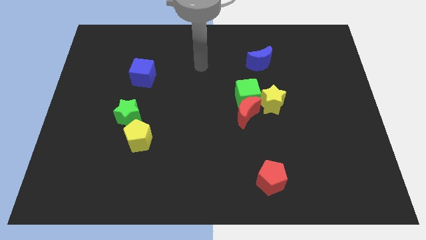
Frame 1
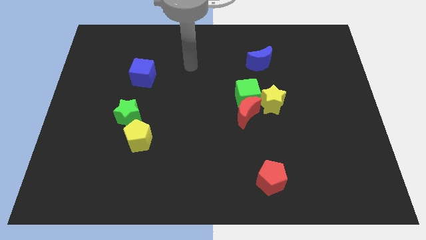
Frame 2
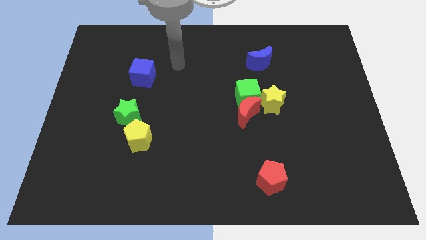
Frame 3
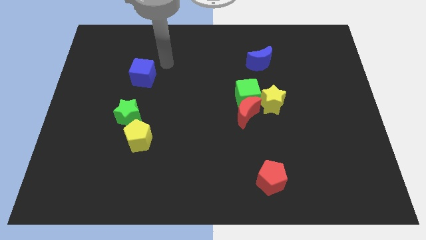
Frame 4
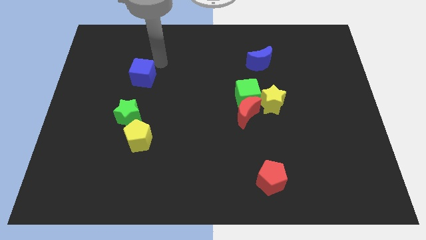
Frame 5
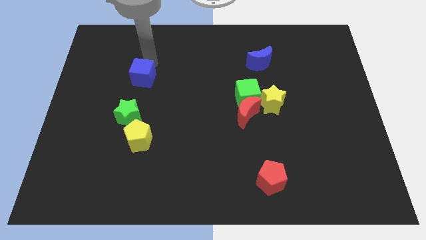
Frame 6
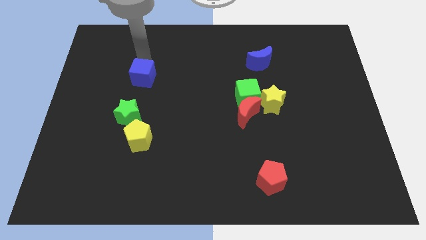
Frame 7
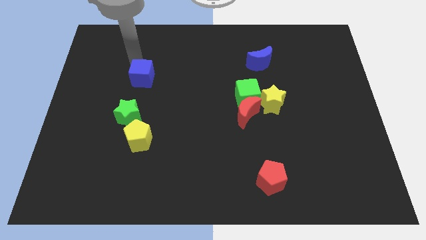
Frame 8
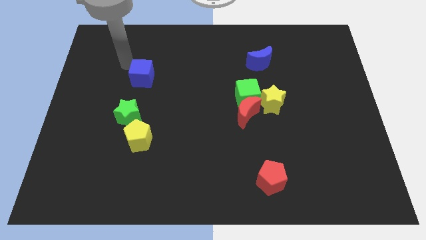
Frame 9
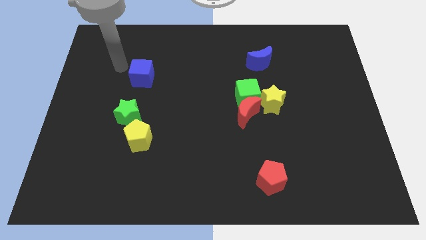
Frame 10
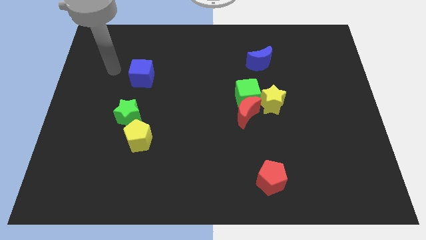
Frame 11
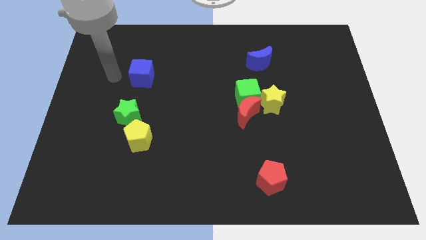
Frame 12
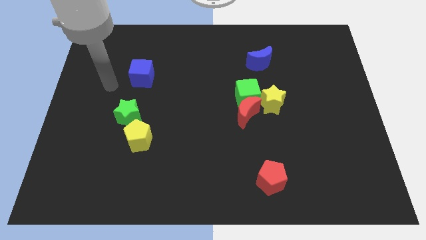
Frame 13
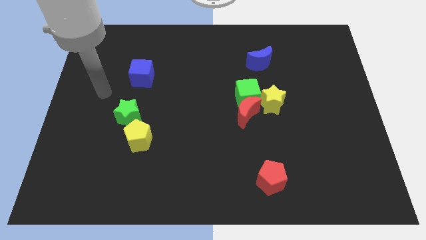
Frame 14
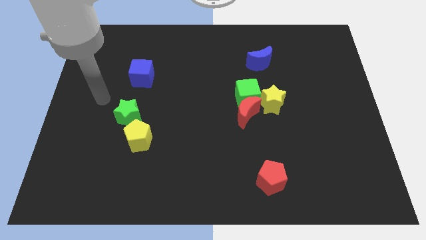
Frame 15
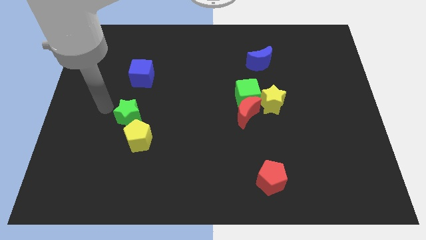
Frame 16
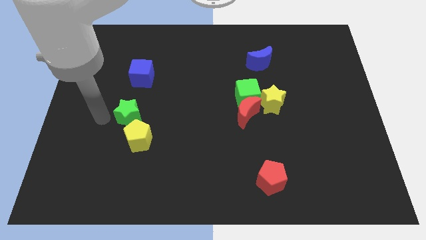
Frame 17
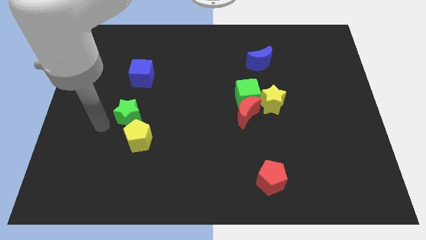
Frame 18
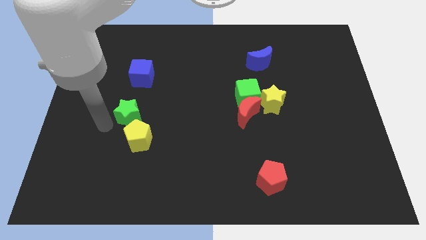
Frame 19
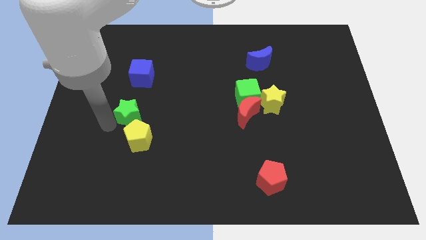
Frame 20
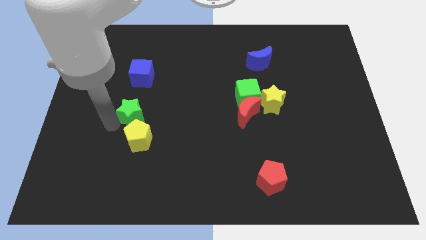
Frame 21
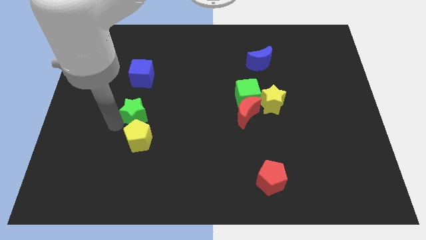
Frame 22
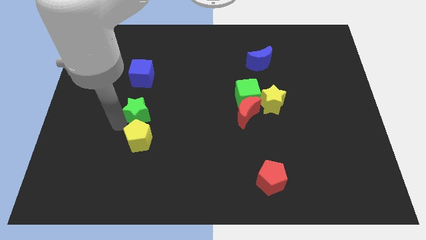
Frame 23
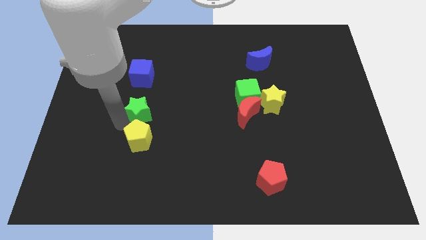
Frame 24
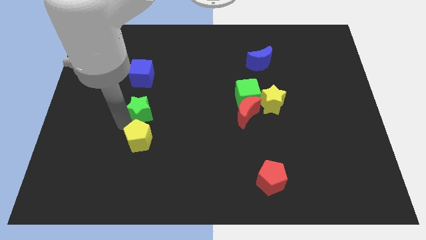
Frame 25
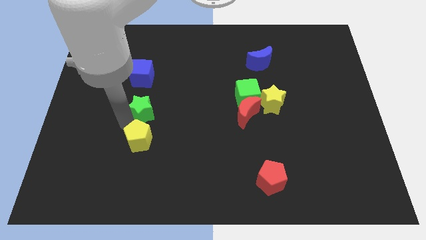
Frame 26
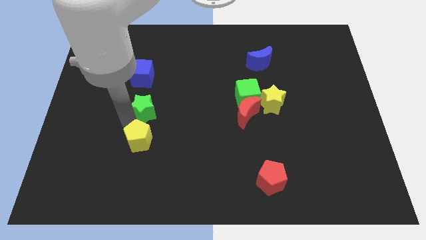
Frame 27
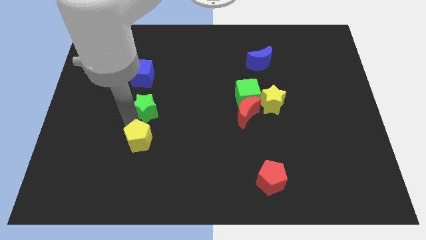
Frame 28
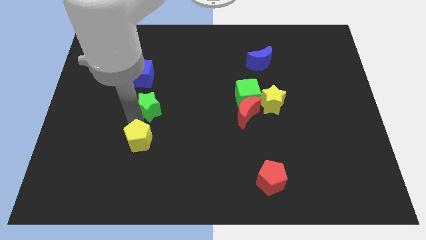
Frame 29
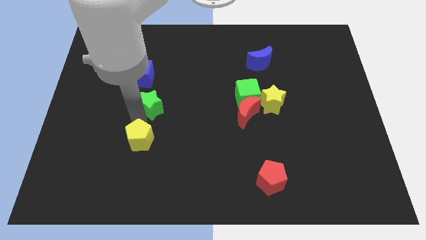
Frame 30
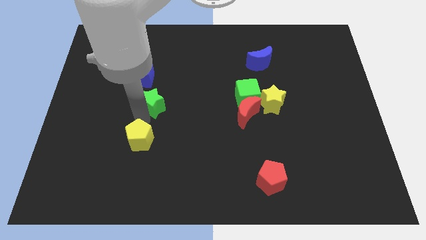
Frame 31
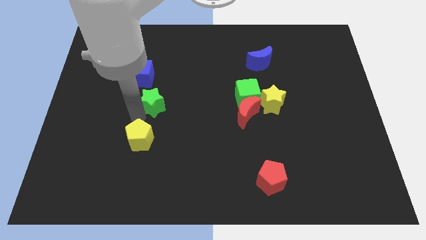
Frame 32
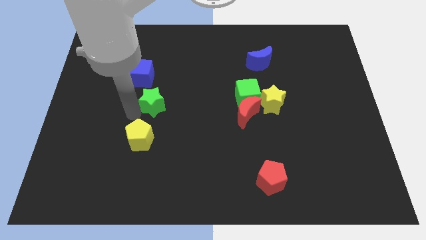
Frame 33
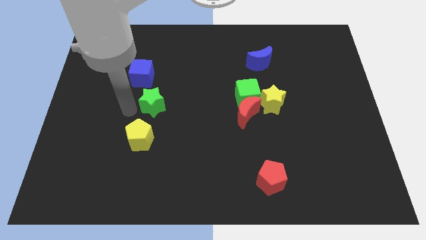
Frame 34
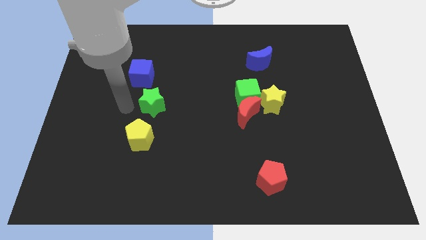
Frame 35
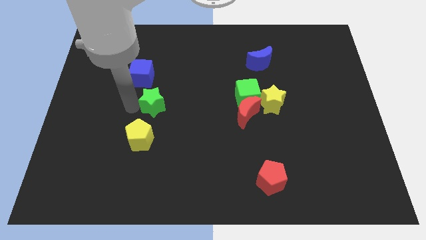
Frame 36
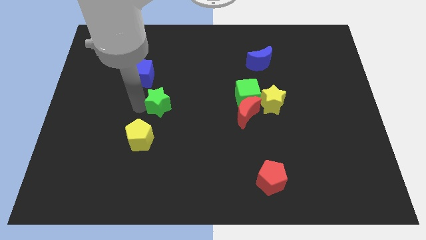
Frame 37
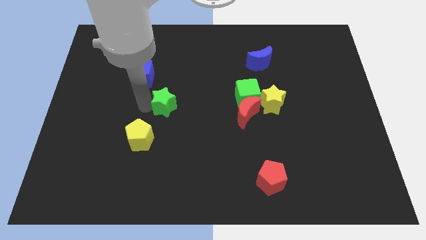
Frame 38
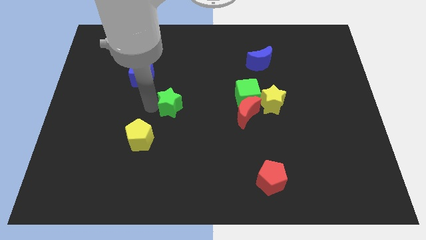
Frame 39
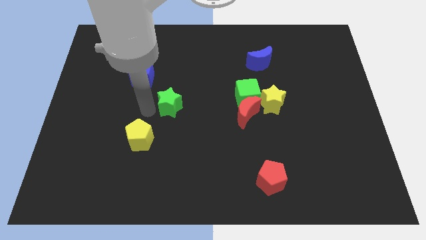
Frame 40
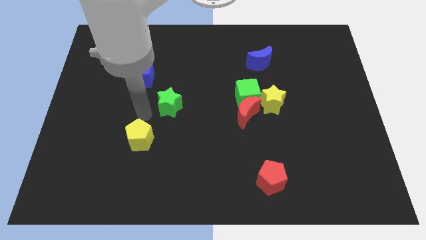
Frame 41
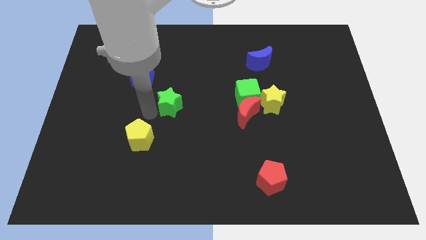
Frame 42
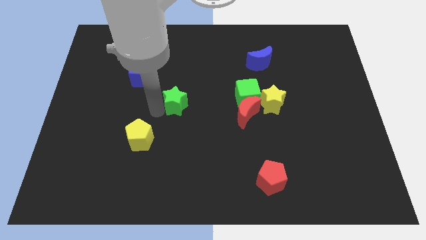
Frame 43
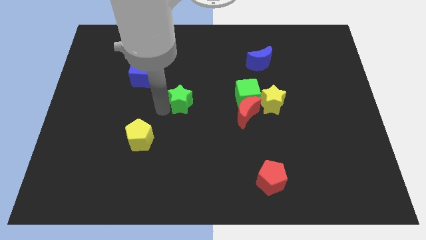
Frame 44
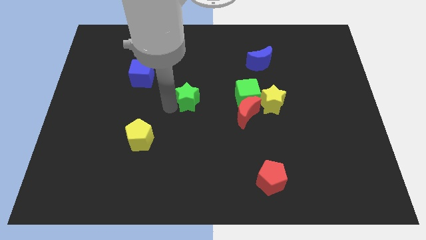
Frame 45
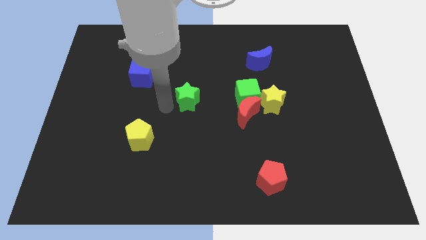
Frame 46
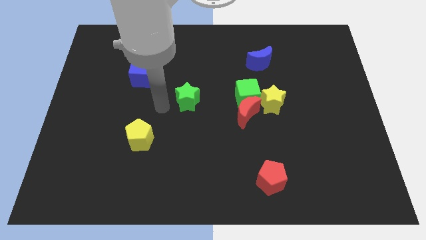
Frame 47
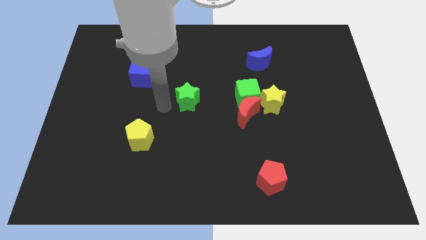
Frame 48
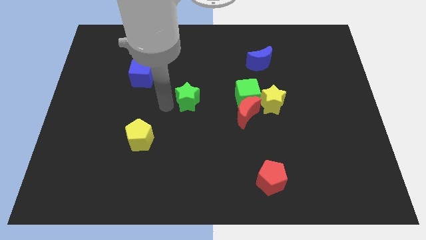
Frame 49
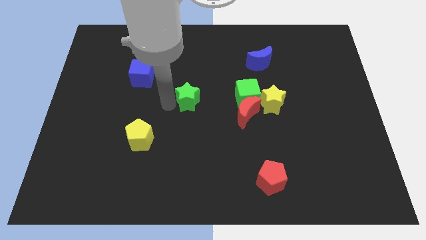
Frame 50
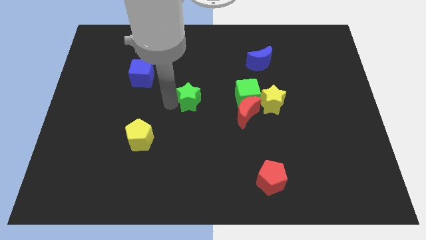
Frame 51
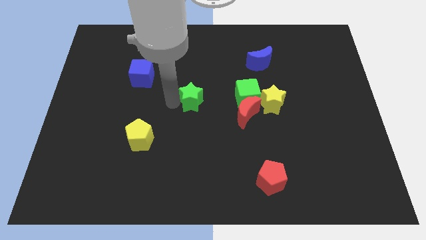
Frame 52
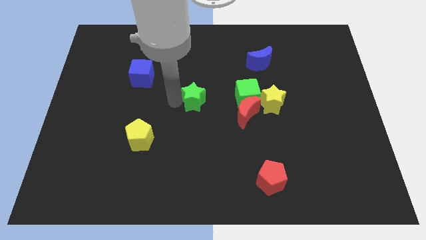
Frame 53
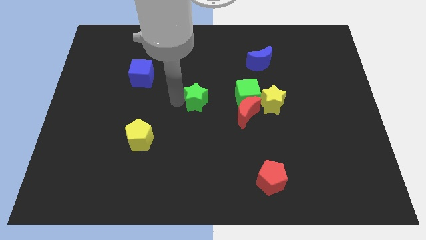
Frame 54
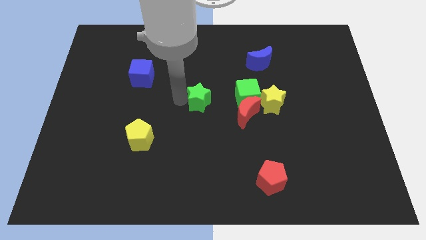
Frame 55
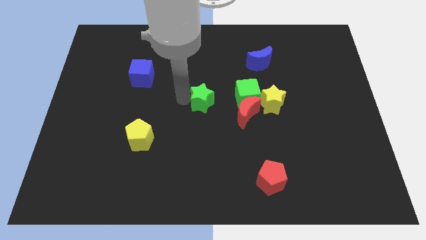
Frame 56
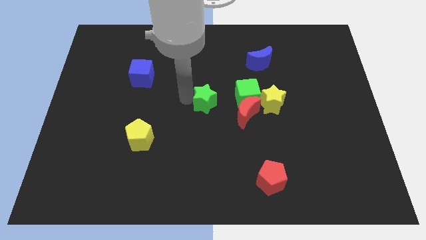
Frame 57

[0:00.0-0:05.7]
push the green star to the top left side of the red moon

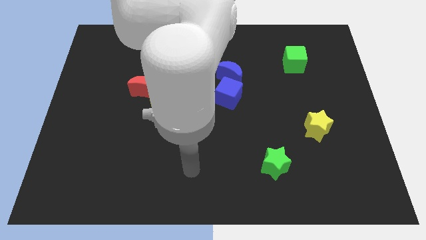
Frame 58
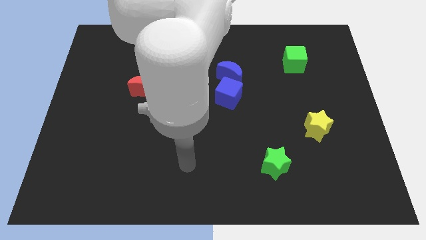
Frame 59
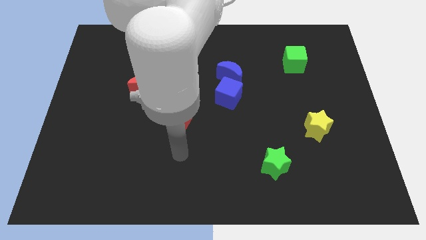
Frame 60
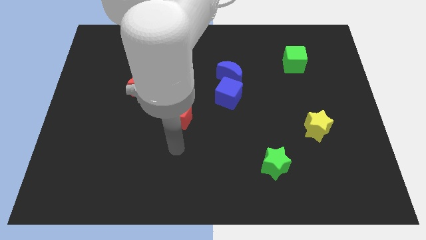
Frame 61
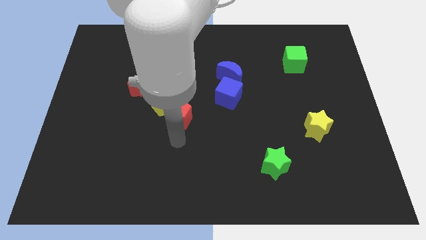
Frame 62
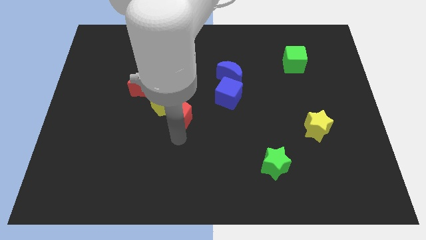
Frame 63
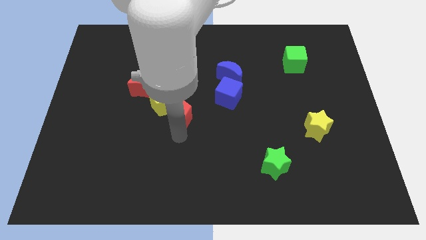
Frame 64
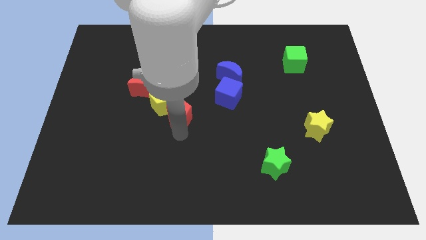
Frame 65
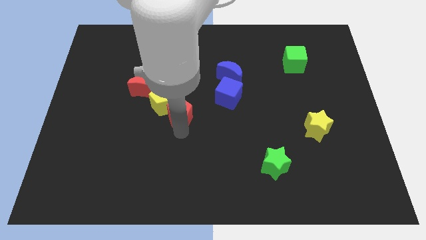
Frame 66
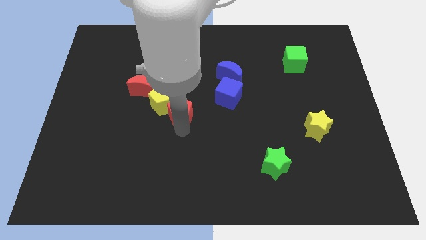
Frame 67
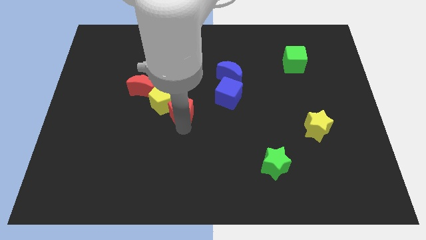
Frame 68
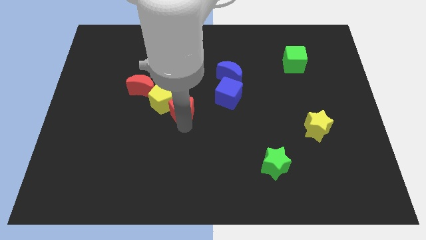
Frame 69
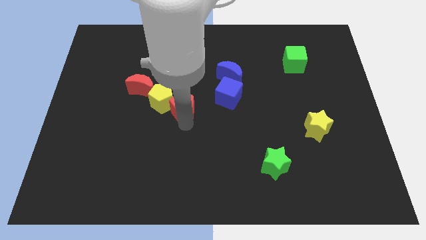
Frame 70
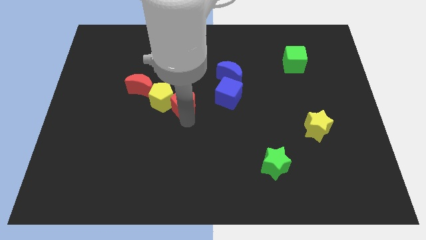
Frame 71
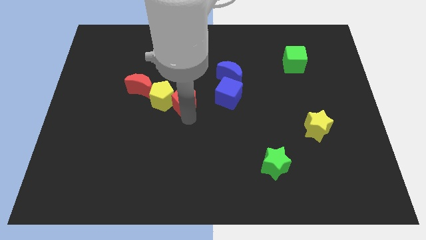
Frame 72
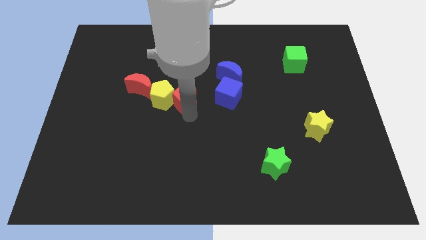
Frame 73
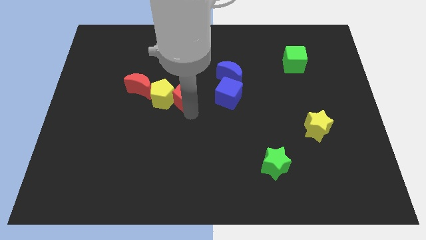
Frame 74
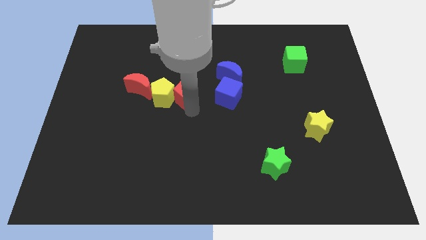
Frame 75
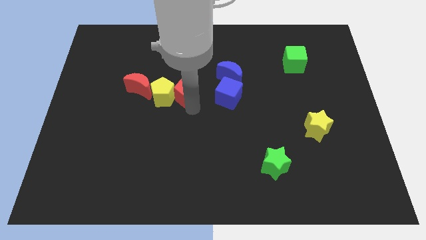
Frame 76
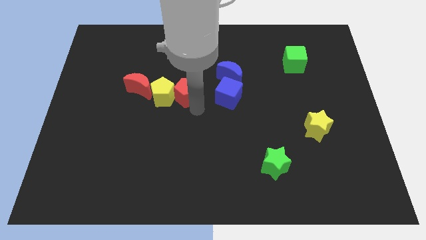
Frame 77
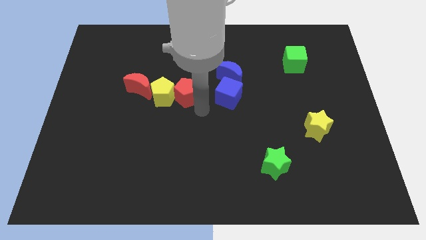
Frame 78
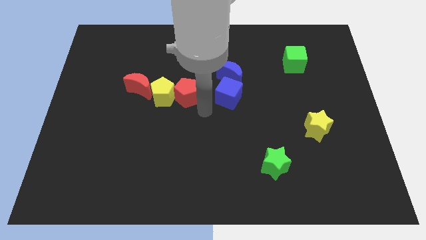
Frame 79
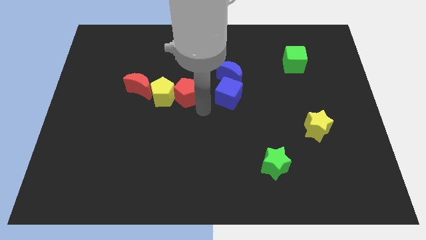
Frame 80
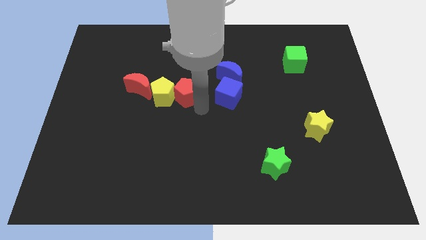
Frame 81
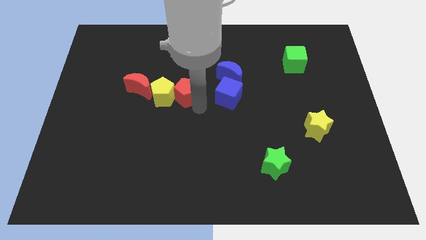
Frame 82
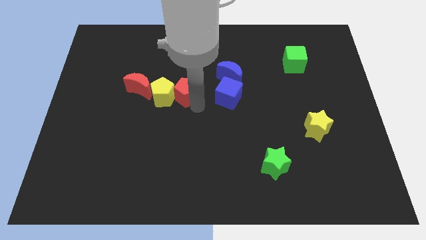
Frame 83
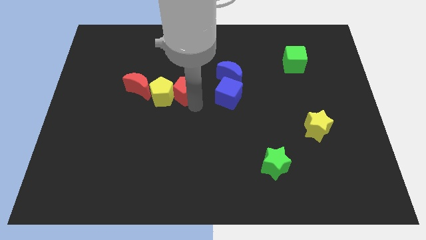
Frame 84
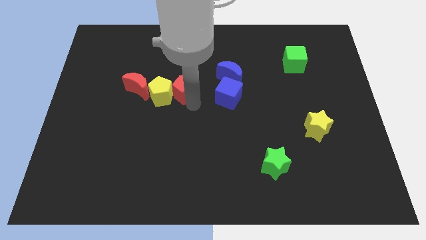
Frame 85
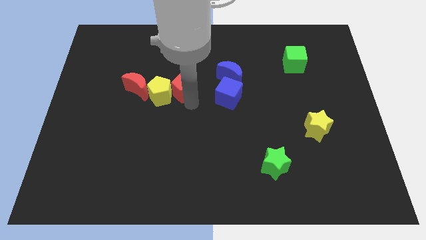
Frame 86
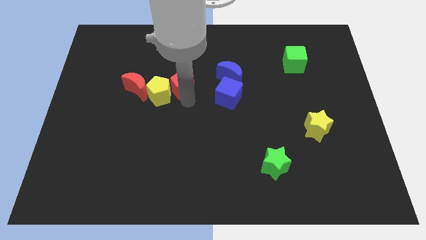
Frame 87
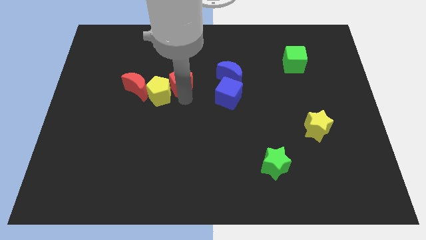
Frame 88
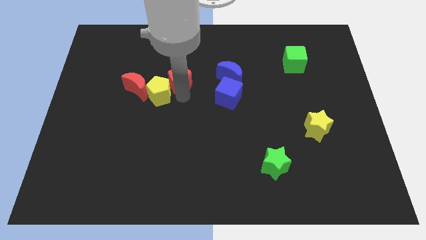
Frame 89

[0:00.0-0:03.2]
put the red pentagon to the top side of the yellow pentagon
